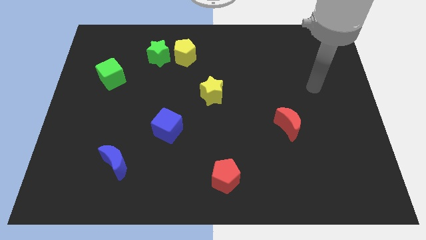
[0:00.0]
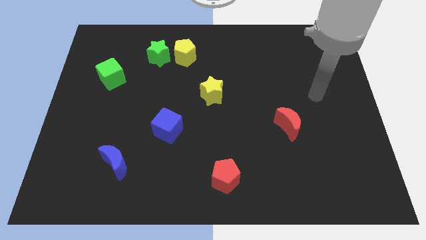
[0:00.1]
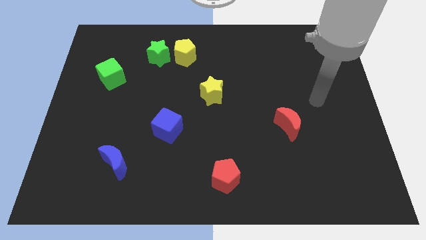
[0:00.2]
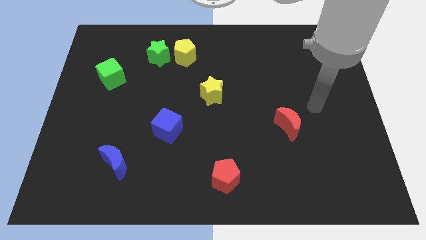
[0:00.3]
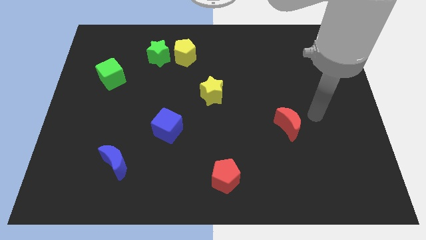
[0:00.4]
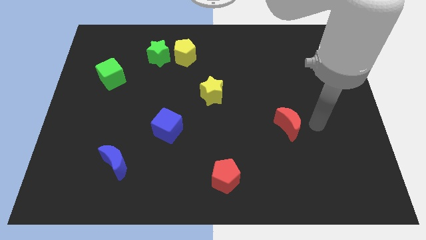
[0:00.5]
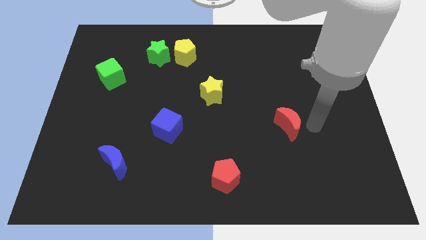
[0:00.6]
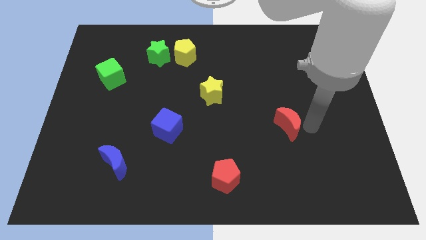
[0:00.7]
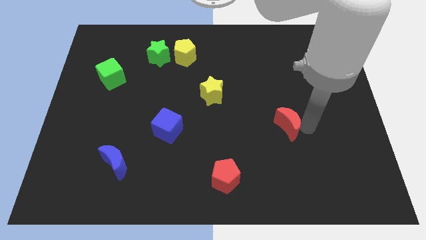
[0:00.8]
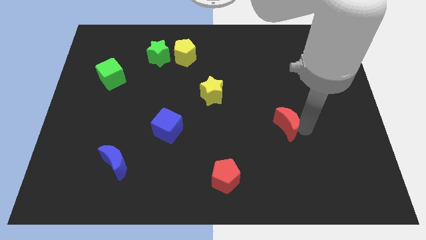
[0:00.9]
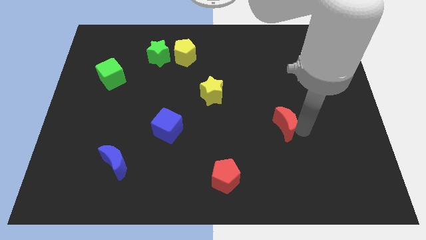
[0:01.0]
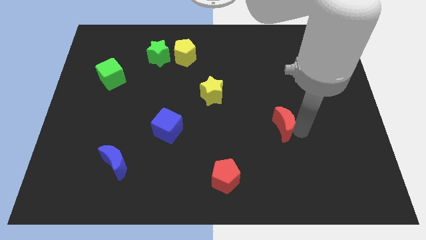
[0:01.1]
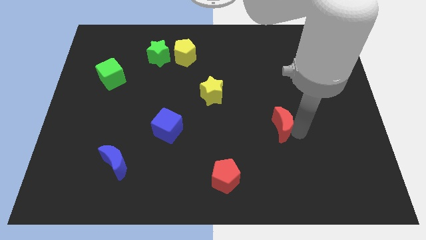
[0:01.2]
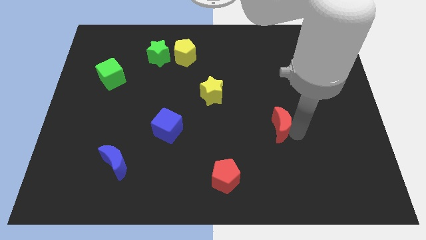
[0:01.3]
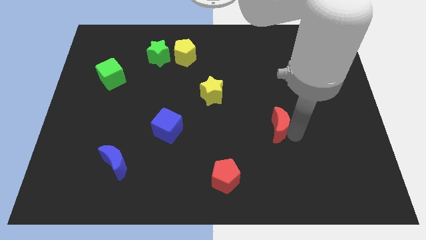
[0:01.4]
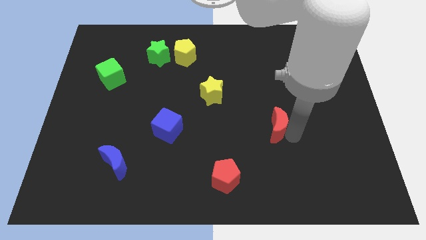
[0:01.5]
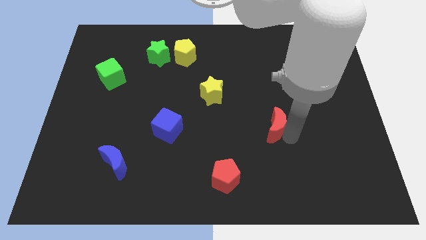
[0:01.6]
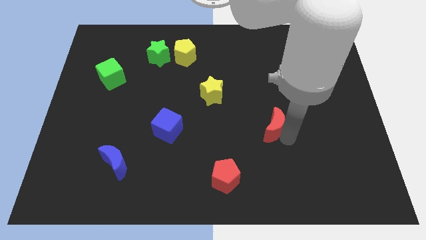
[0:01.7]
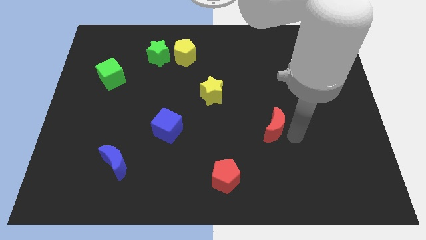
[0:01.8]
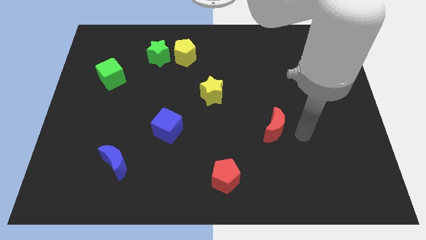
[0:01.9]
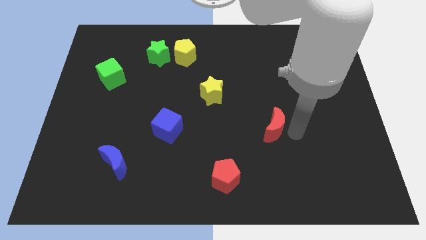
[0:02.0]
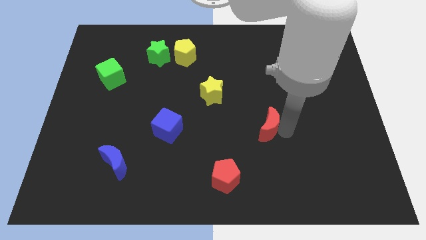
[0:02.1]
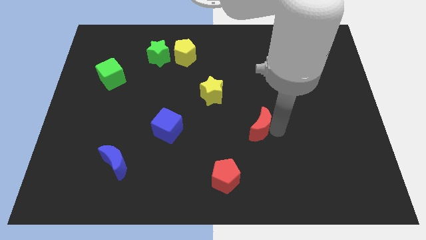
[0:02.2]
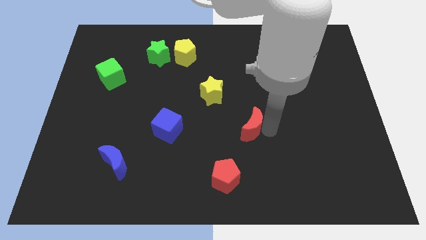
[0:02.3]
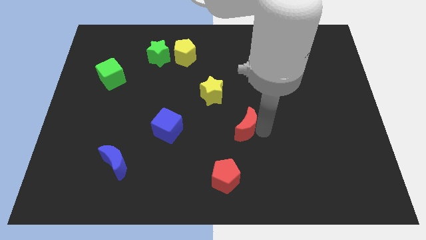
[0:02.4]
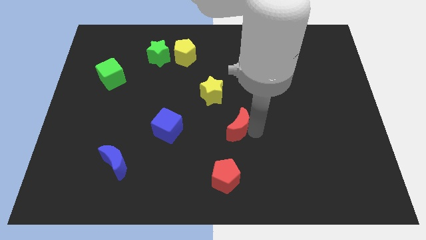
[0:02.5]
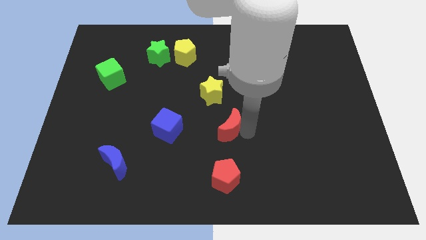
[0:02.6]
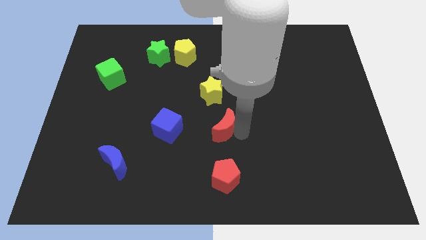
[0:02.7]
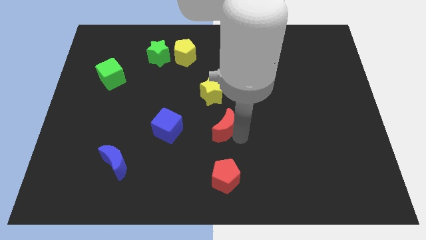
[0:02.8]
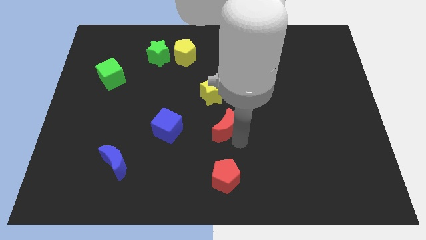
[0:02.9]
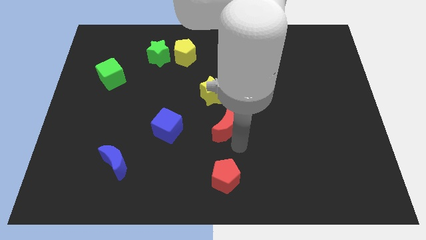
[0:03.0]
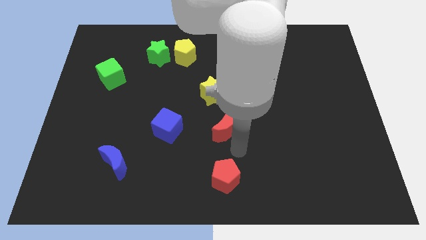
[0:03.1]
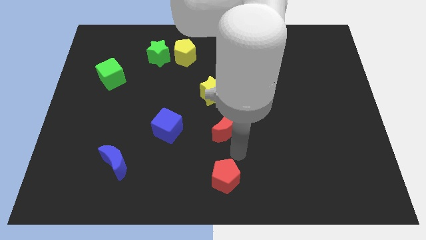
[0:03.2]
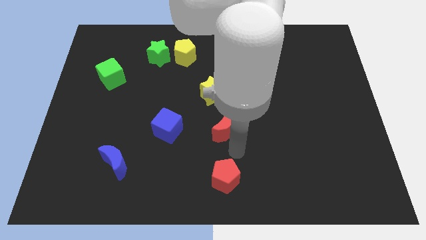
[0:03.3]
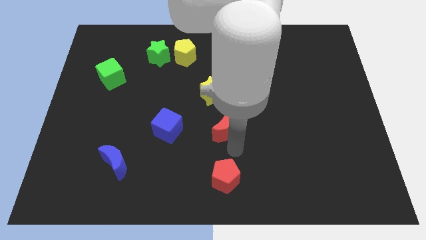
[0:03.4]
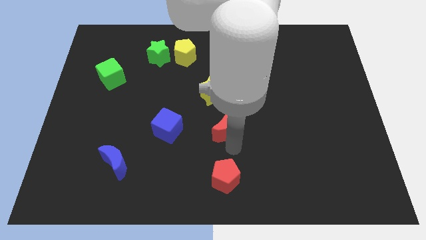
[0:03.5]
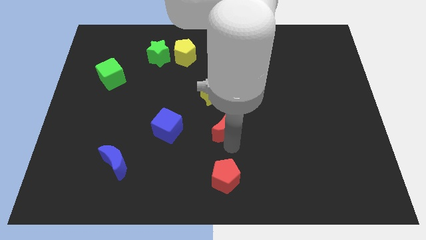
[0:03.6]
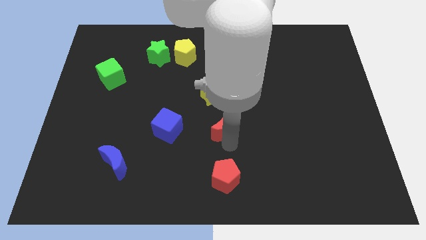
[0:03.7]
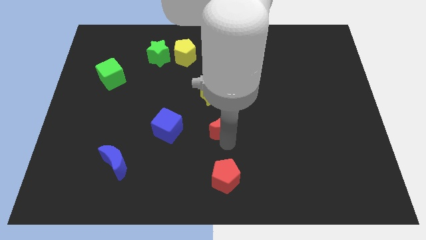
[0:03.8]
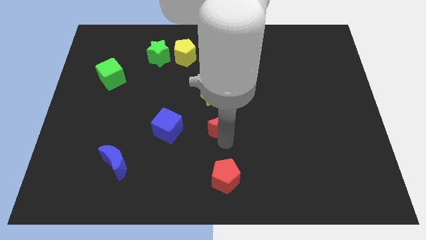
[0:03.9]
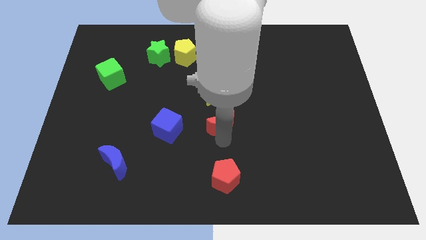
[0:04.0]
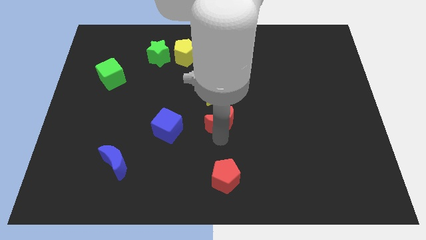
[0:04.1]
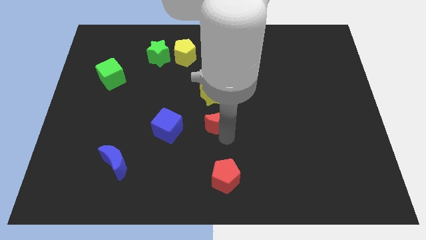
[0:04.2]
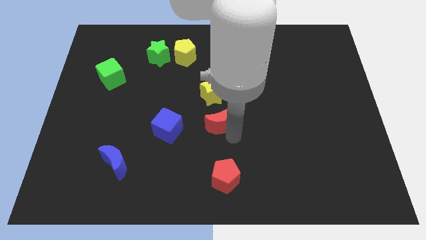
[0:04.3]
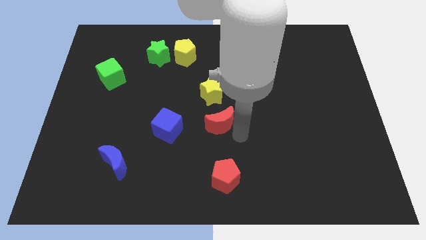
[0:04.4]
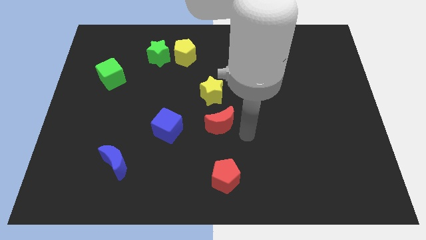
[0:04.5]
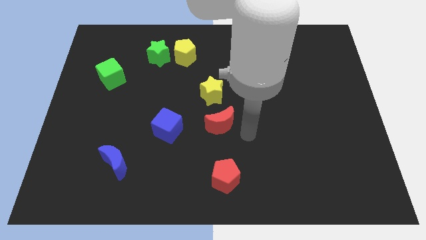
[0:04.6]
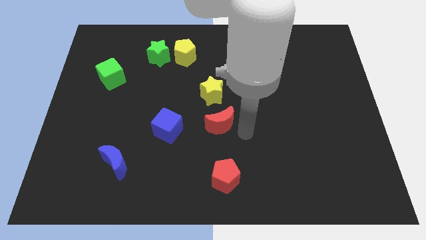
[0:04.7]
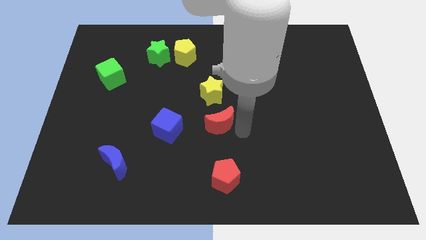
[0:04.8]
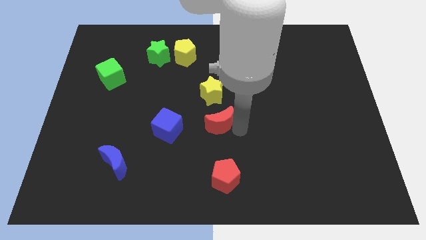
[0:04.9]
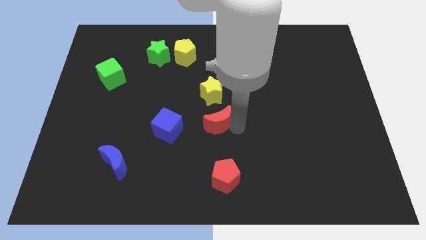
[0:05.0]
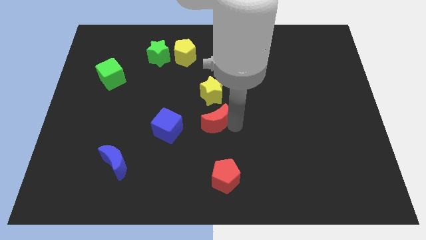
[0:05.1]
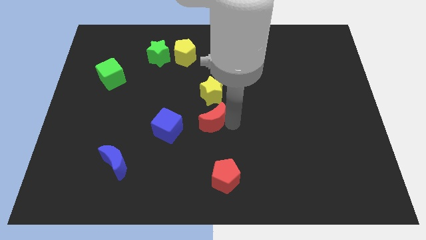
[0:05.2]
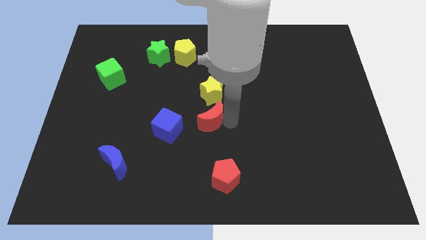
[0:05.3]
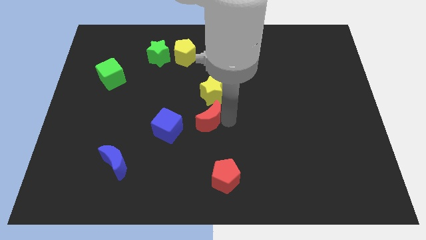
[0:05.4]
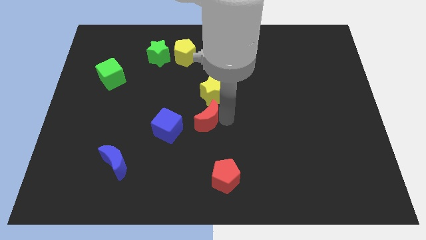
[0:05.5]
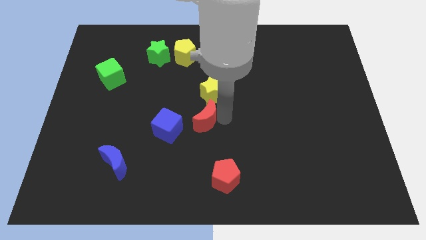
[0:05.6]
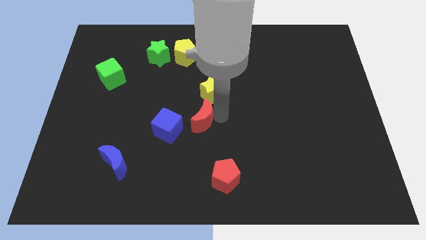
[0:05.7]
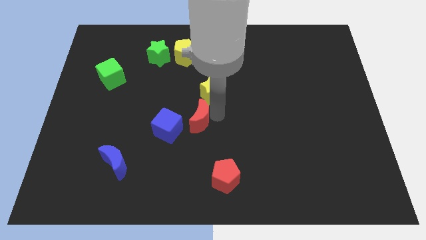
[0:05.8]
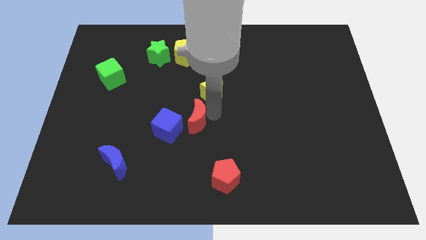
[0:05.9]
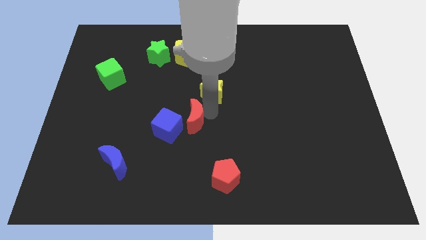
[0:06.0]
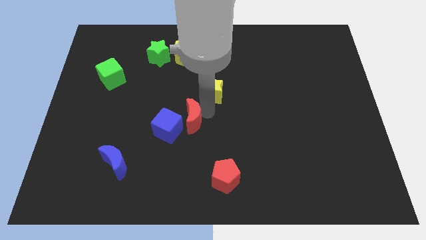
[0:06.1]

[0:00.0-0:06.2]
move the red moon towards the blue cube

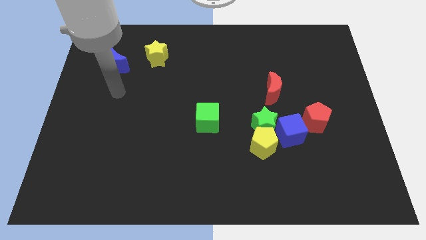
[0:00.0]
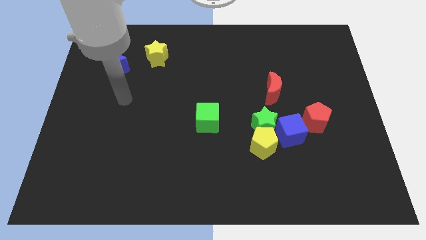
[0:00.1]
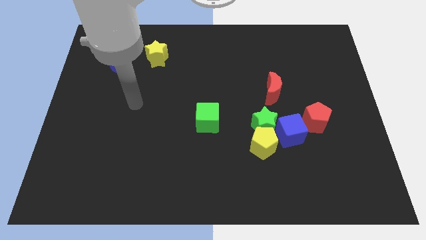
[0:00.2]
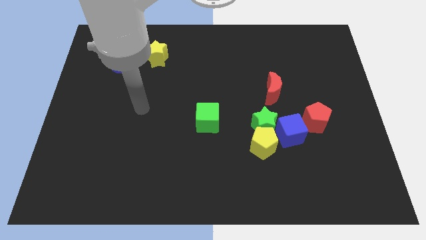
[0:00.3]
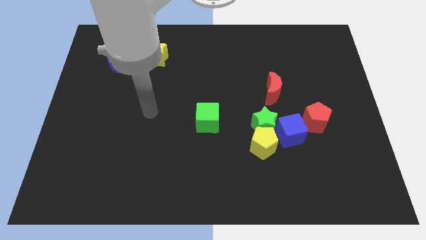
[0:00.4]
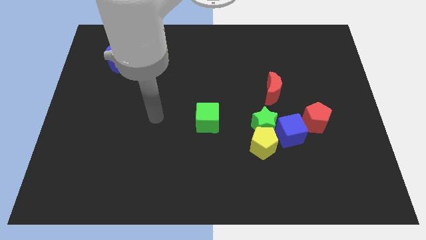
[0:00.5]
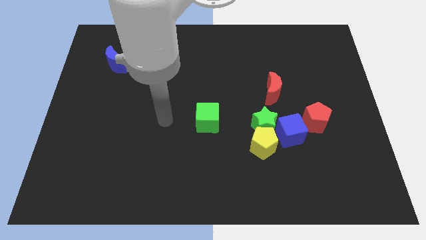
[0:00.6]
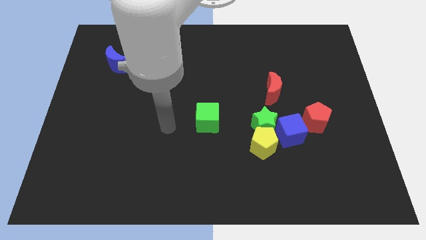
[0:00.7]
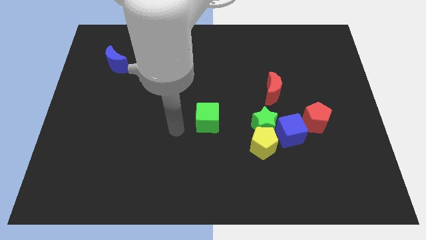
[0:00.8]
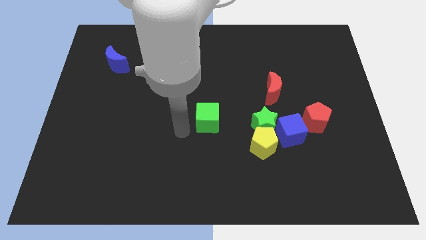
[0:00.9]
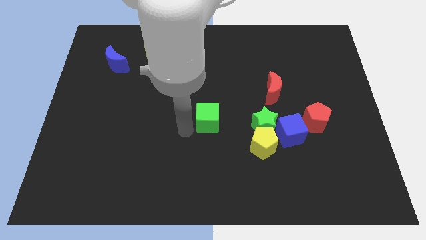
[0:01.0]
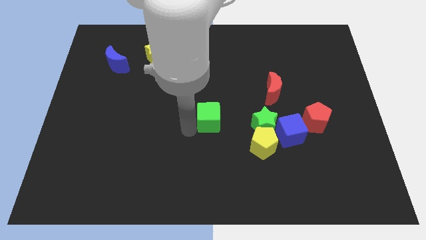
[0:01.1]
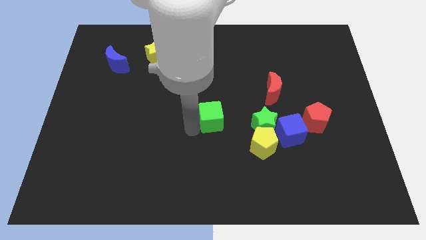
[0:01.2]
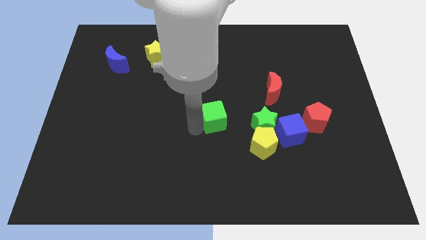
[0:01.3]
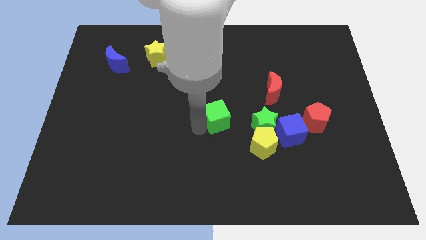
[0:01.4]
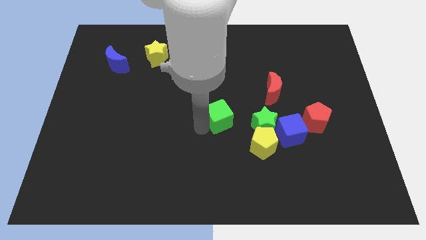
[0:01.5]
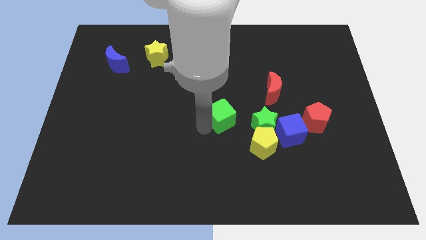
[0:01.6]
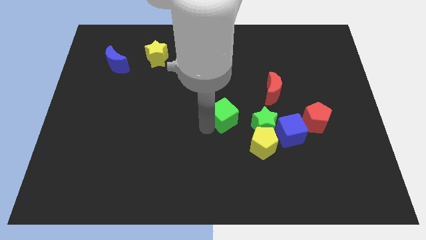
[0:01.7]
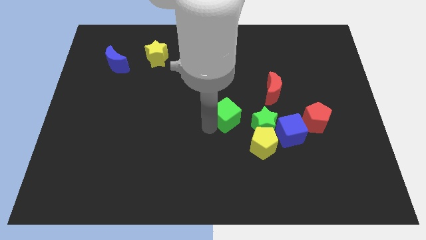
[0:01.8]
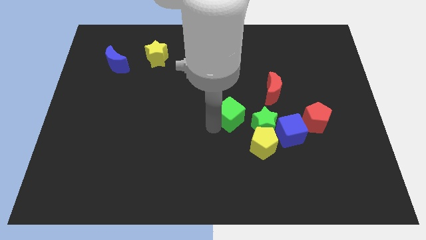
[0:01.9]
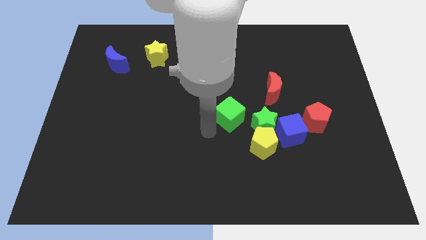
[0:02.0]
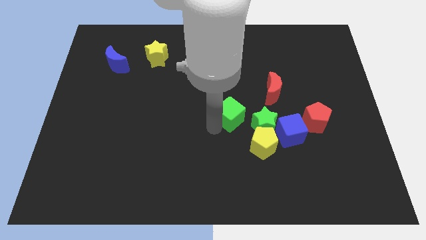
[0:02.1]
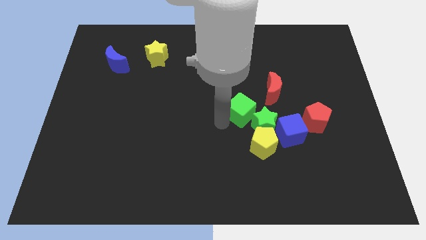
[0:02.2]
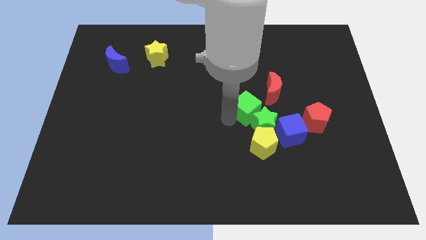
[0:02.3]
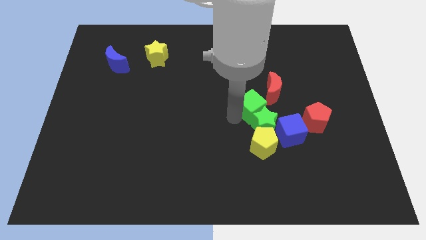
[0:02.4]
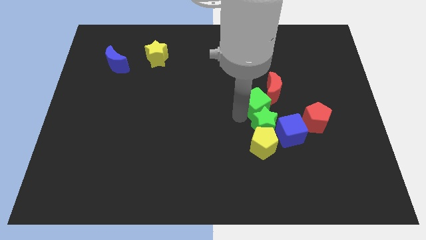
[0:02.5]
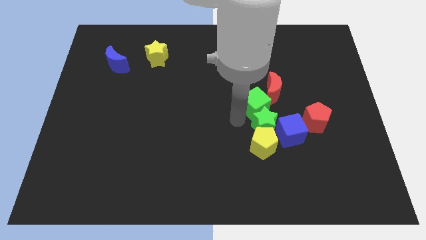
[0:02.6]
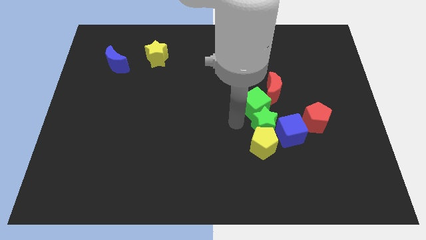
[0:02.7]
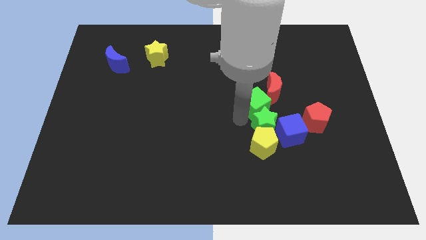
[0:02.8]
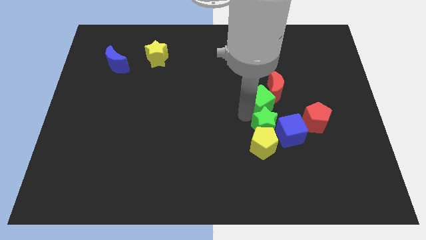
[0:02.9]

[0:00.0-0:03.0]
slide the green cube to the red moon
